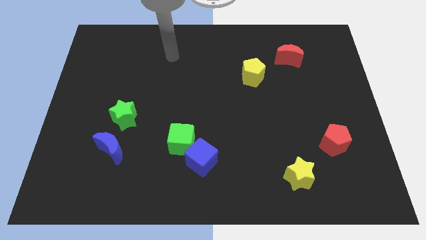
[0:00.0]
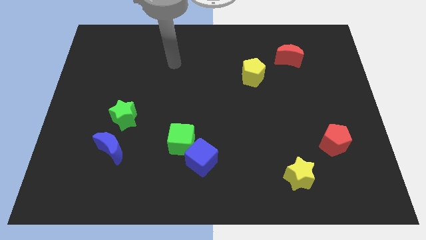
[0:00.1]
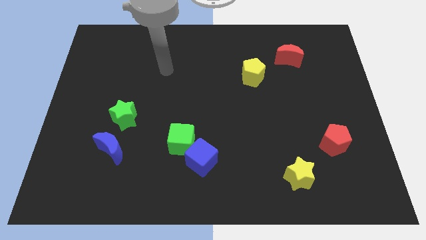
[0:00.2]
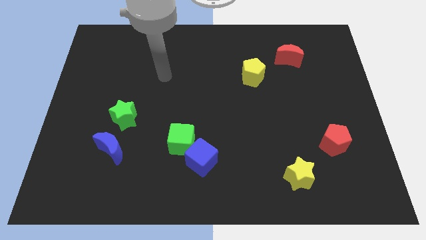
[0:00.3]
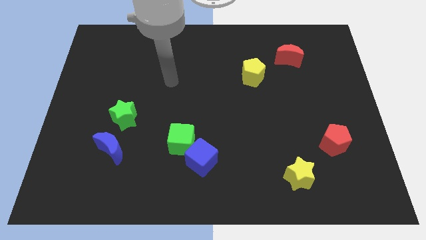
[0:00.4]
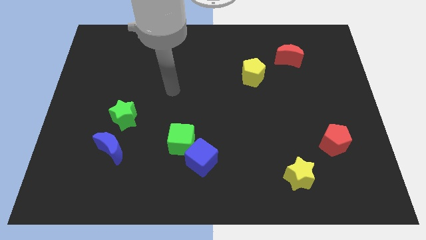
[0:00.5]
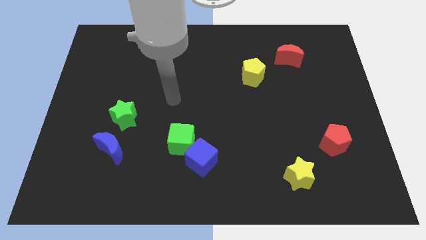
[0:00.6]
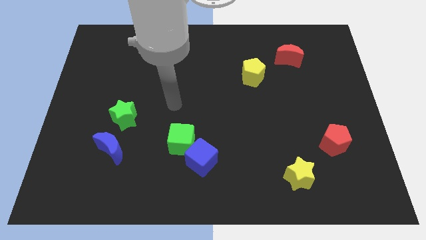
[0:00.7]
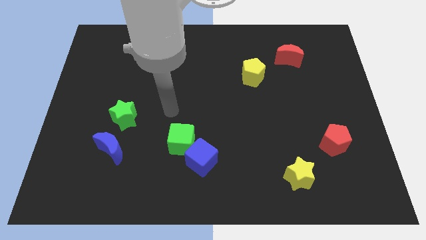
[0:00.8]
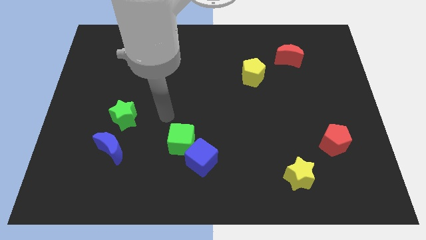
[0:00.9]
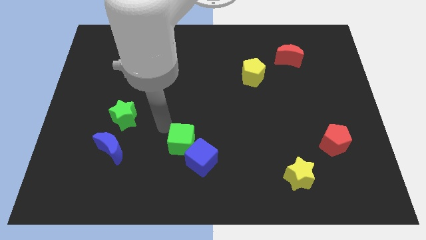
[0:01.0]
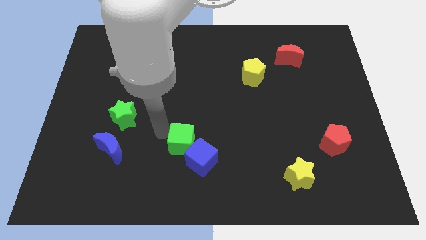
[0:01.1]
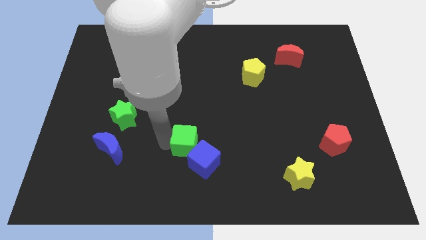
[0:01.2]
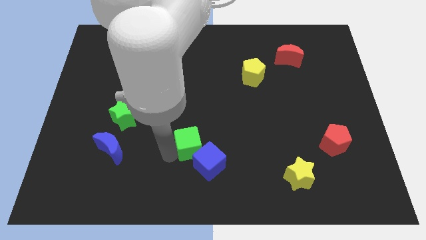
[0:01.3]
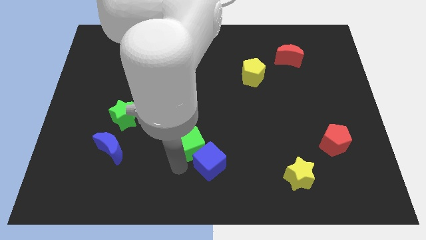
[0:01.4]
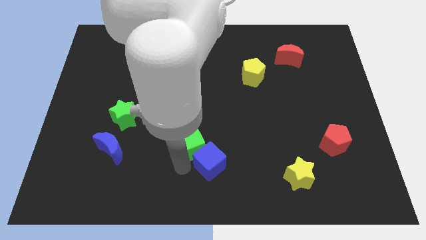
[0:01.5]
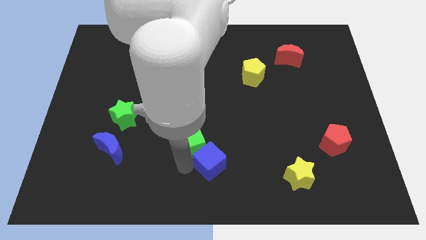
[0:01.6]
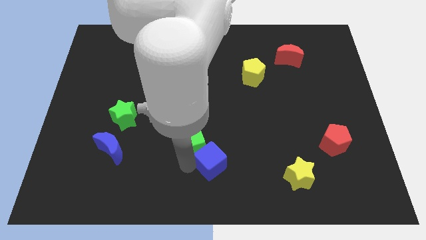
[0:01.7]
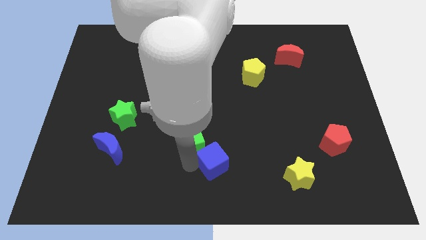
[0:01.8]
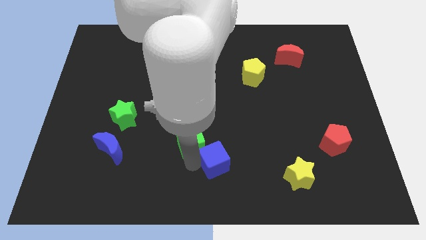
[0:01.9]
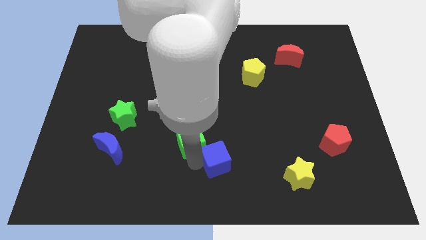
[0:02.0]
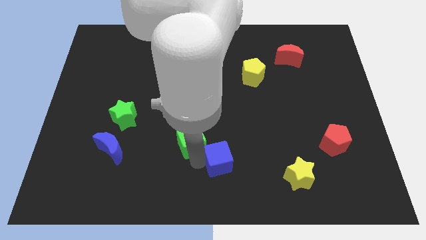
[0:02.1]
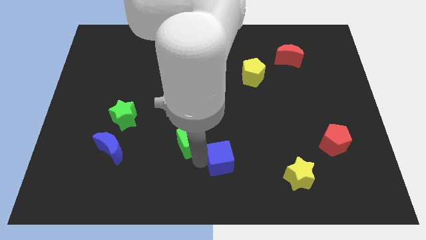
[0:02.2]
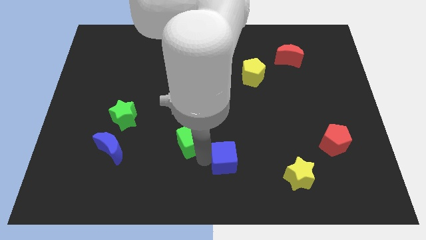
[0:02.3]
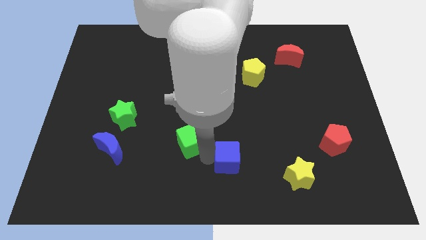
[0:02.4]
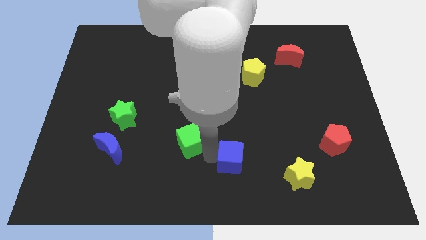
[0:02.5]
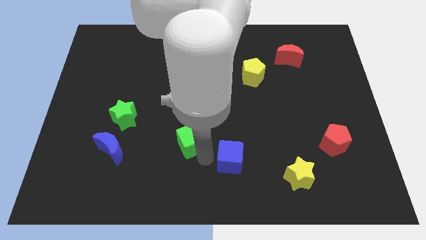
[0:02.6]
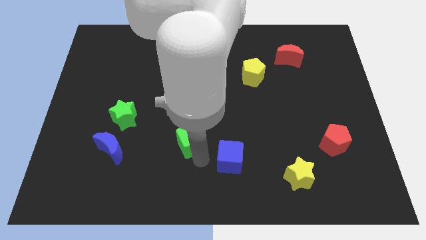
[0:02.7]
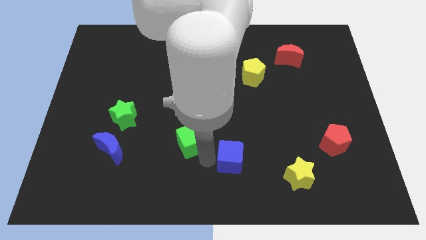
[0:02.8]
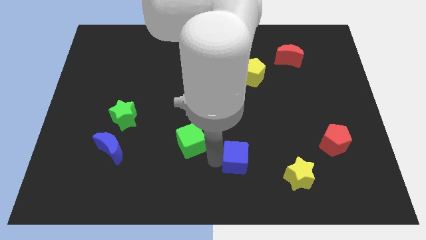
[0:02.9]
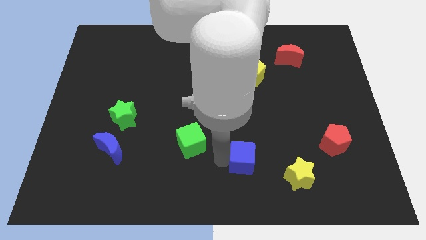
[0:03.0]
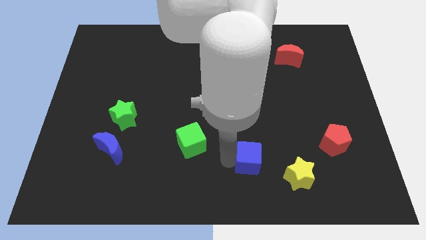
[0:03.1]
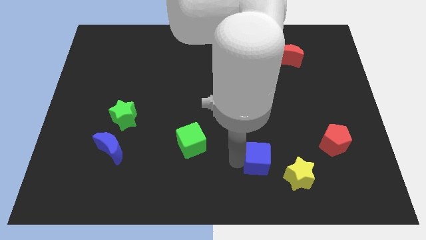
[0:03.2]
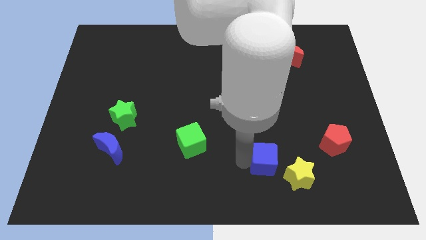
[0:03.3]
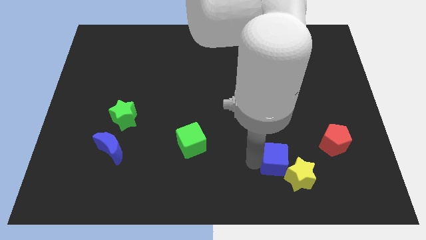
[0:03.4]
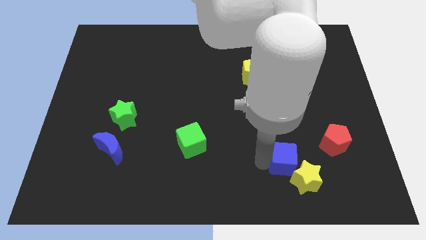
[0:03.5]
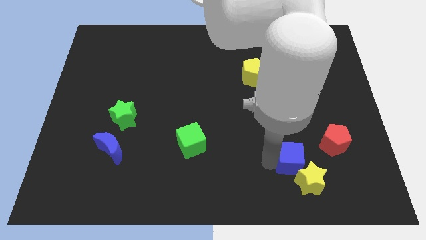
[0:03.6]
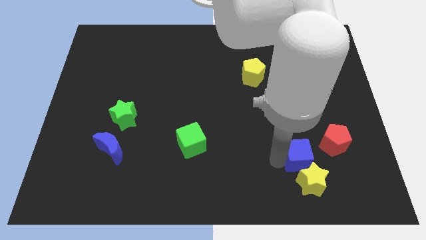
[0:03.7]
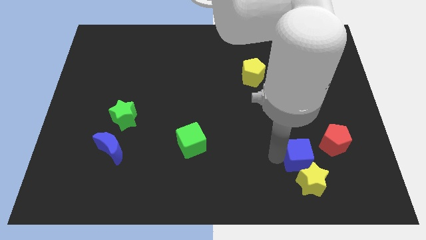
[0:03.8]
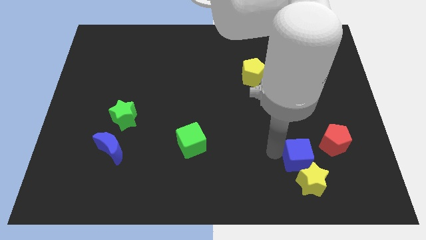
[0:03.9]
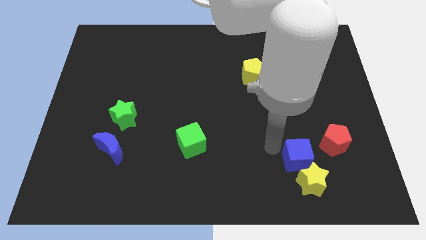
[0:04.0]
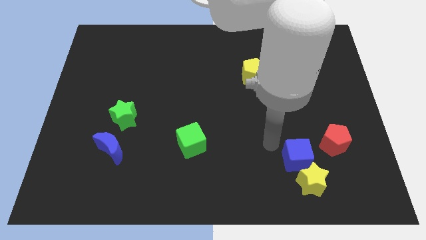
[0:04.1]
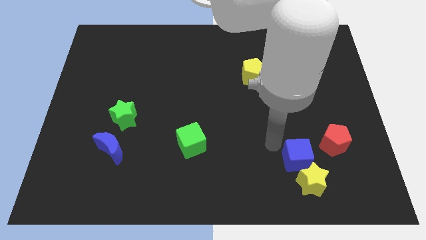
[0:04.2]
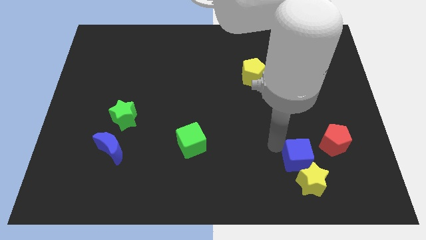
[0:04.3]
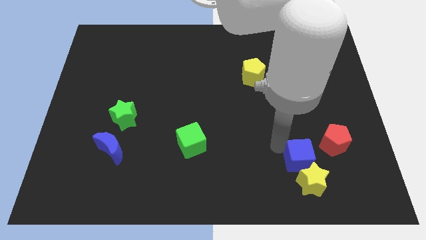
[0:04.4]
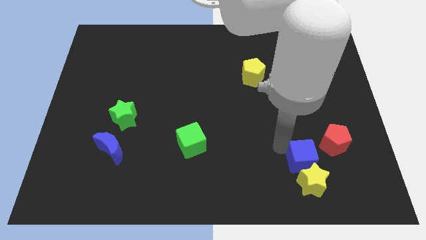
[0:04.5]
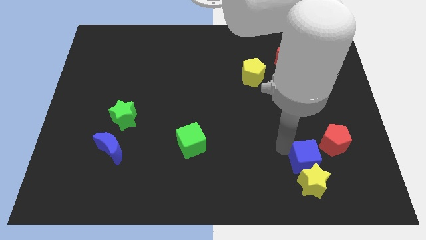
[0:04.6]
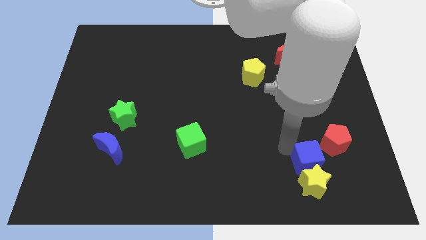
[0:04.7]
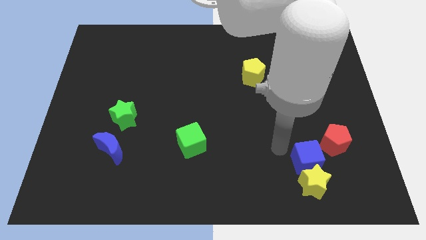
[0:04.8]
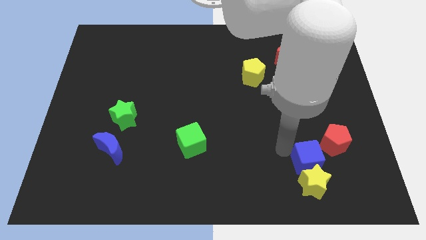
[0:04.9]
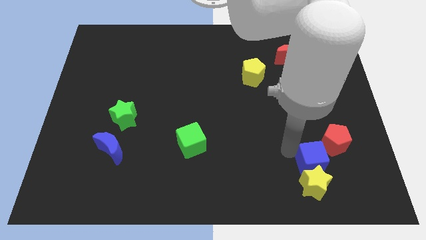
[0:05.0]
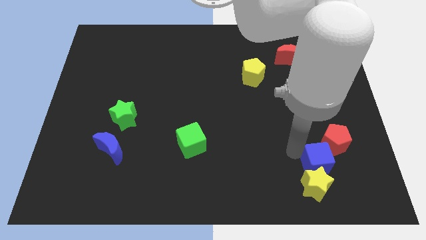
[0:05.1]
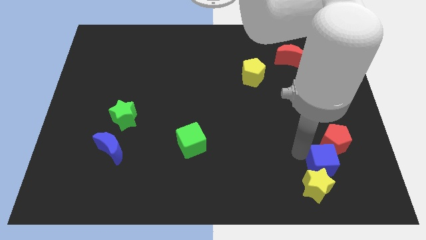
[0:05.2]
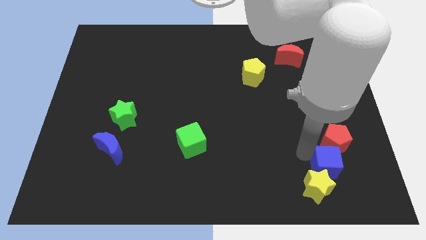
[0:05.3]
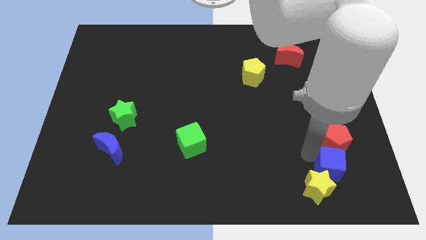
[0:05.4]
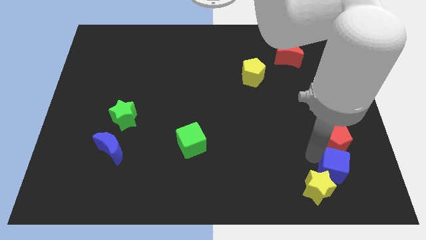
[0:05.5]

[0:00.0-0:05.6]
put the blue cube right of the yellow star

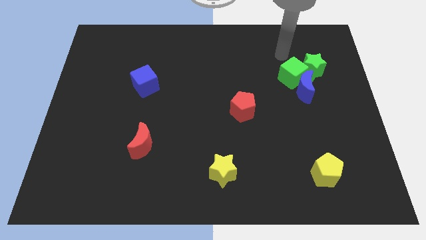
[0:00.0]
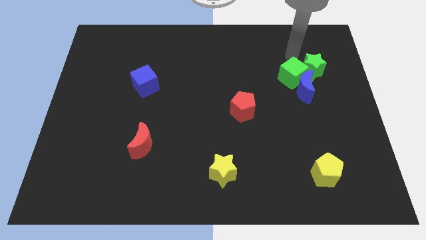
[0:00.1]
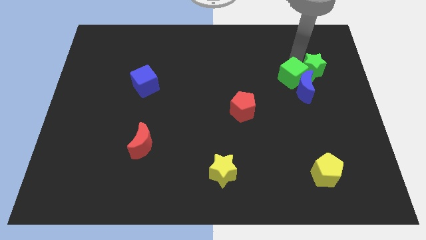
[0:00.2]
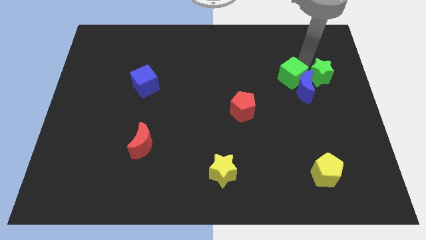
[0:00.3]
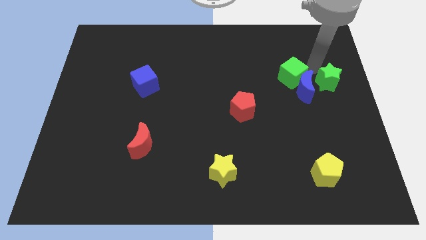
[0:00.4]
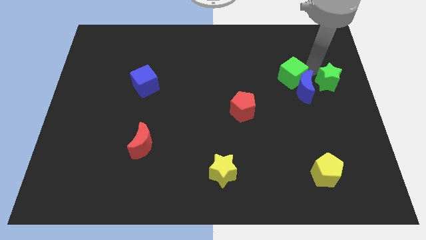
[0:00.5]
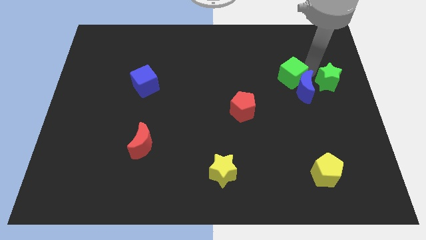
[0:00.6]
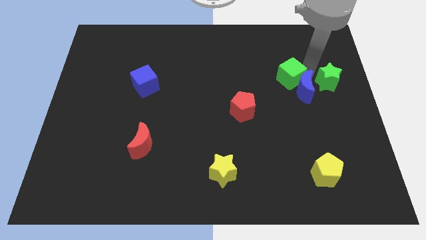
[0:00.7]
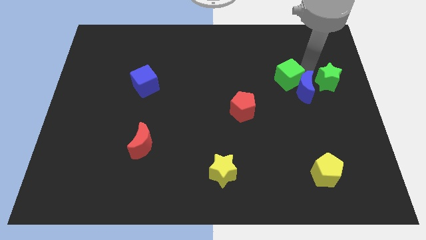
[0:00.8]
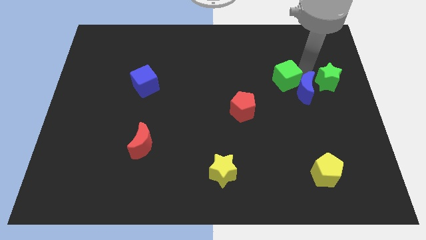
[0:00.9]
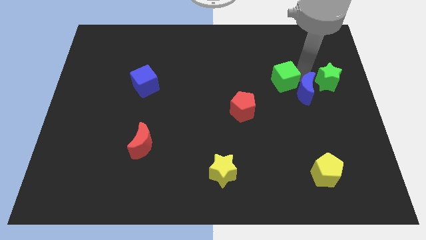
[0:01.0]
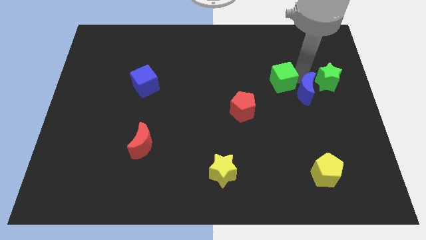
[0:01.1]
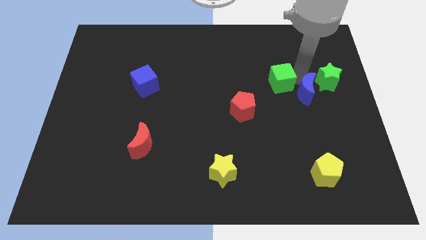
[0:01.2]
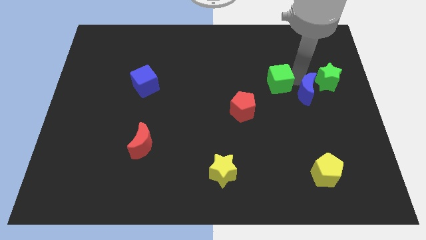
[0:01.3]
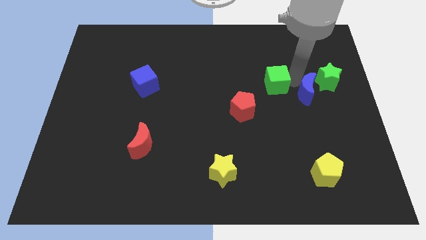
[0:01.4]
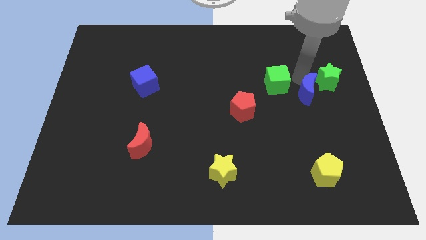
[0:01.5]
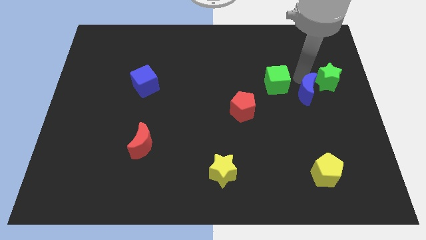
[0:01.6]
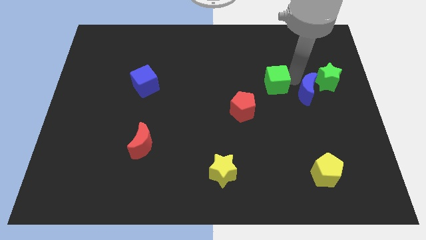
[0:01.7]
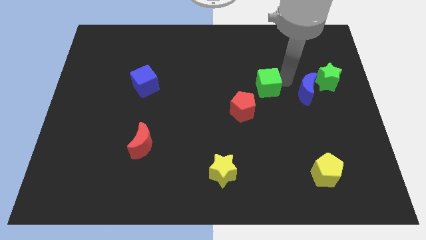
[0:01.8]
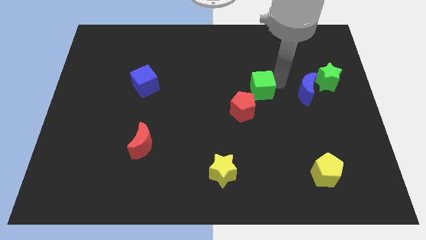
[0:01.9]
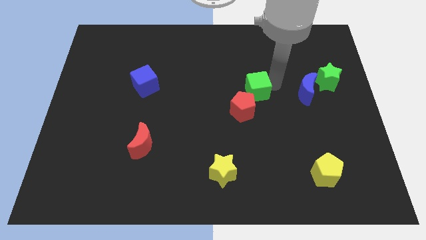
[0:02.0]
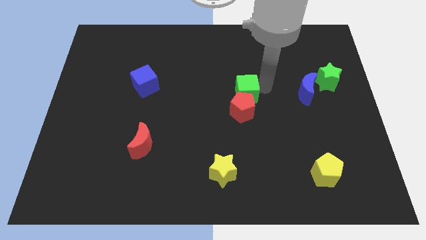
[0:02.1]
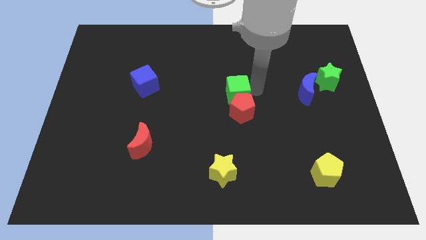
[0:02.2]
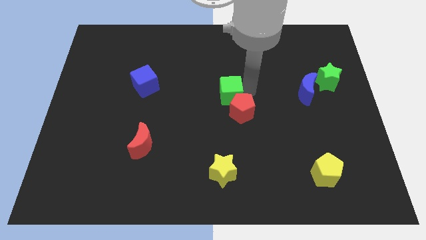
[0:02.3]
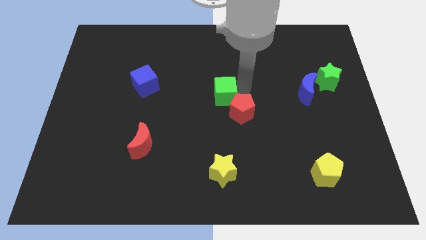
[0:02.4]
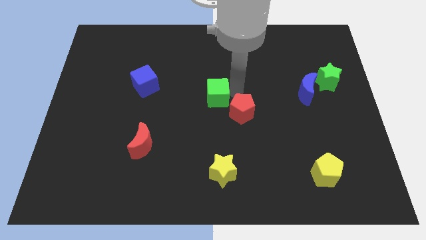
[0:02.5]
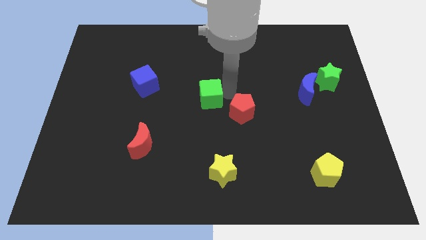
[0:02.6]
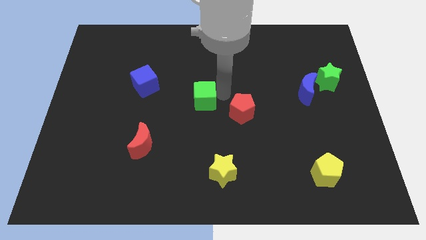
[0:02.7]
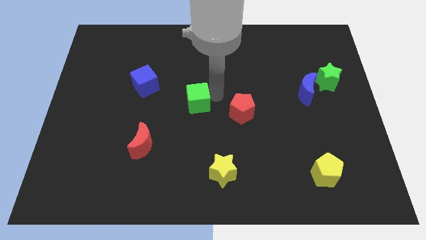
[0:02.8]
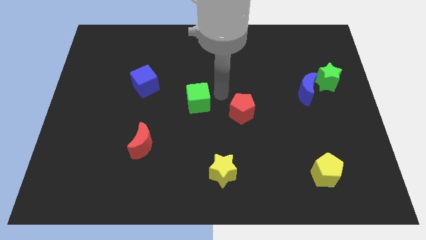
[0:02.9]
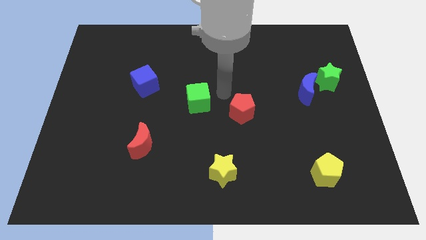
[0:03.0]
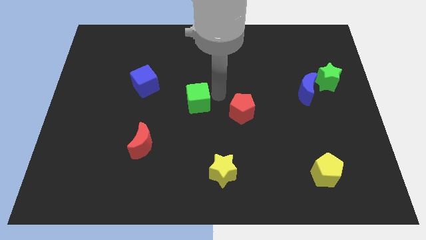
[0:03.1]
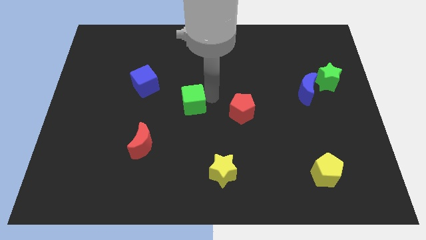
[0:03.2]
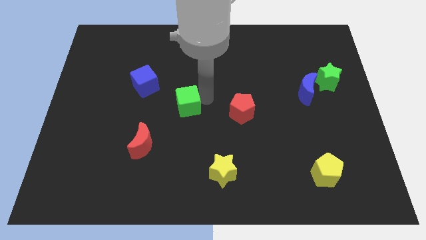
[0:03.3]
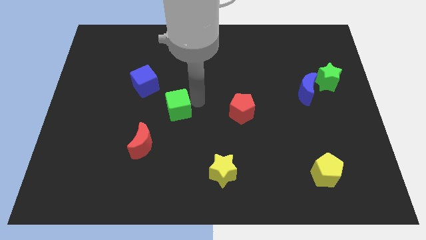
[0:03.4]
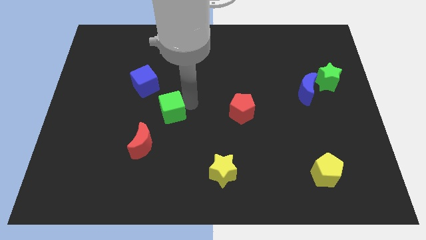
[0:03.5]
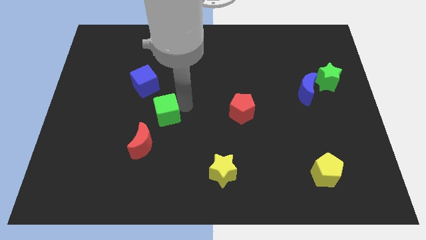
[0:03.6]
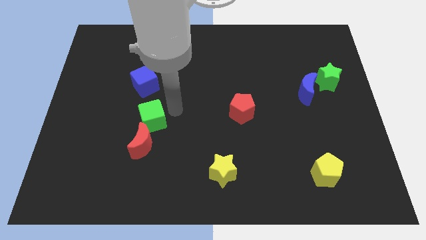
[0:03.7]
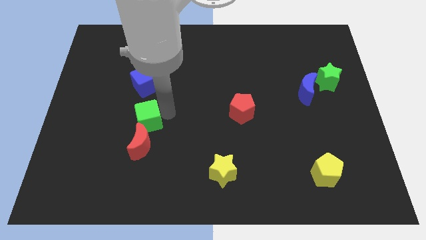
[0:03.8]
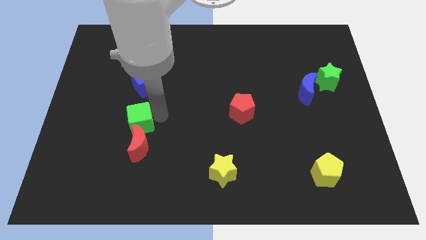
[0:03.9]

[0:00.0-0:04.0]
slide the green cube to the top left side of the red moon
